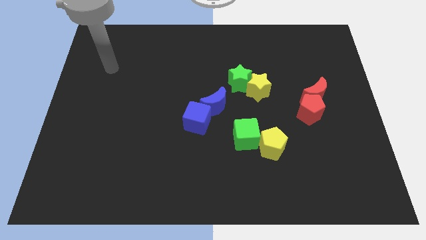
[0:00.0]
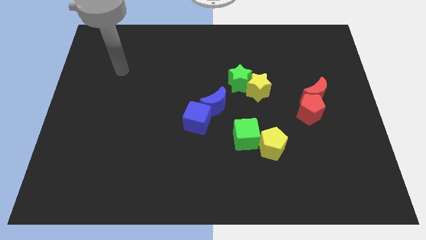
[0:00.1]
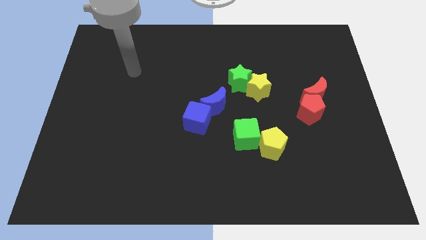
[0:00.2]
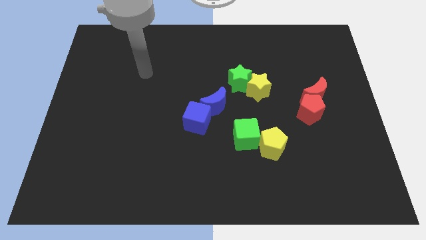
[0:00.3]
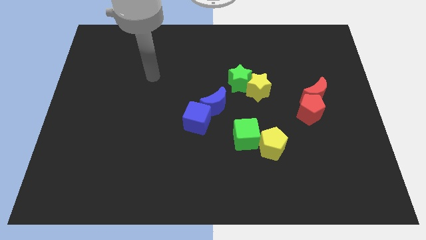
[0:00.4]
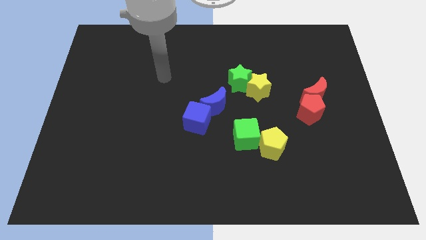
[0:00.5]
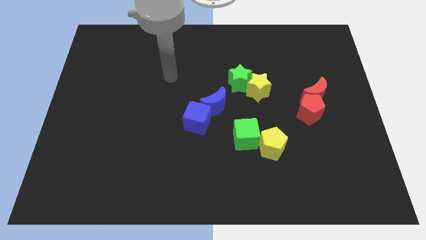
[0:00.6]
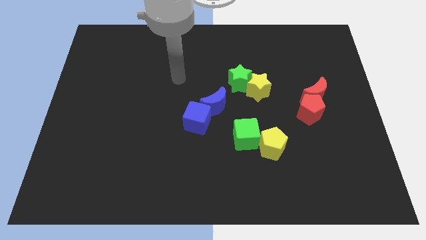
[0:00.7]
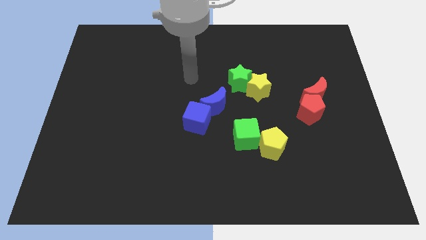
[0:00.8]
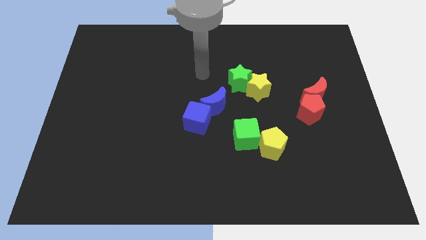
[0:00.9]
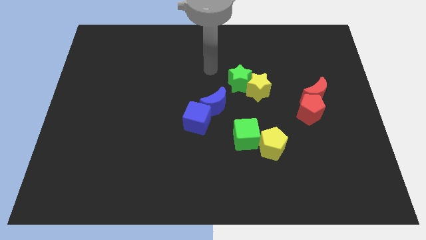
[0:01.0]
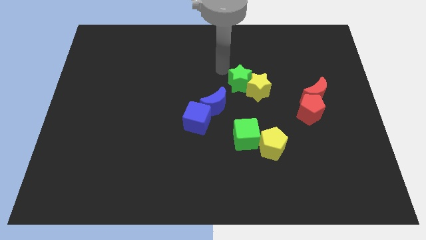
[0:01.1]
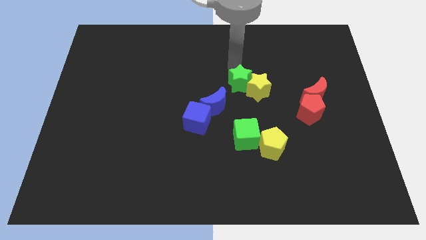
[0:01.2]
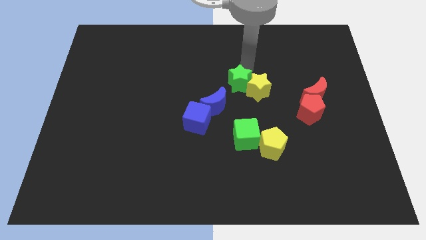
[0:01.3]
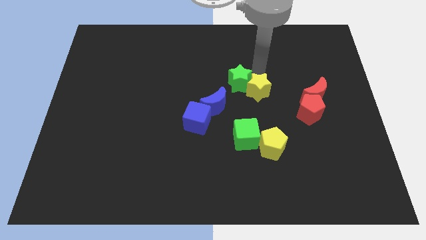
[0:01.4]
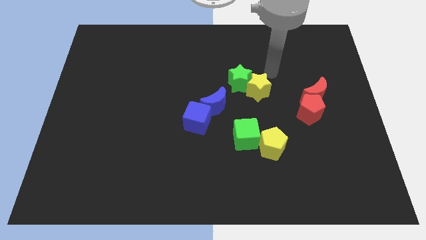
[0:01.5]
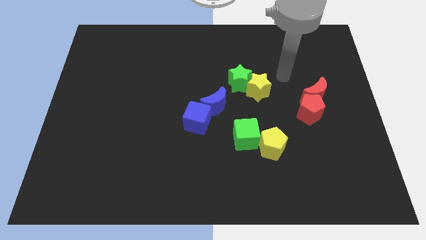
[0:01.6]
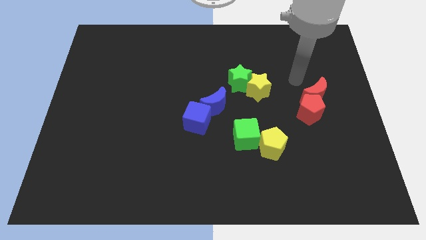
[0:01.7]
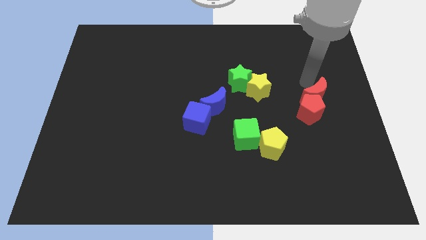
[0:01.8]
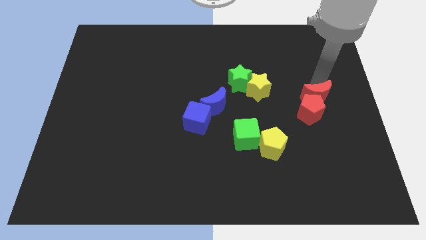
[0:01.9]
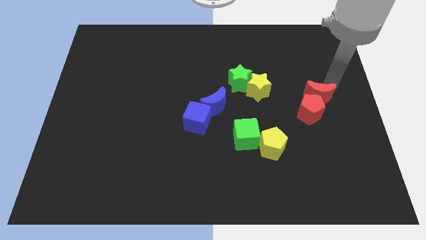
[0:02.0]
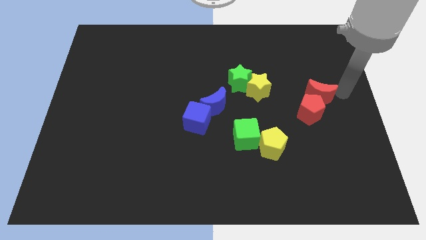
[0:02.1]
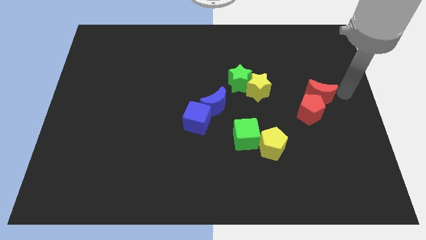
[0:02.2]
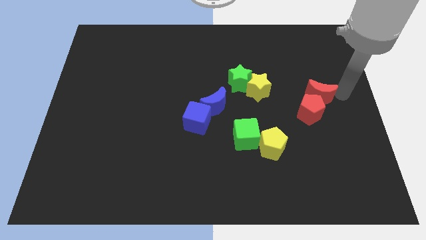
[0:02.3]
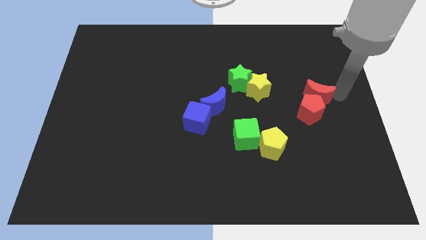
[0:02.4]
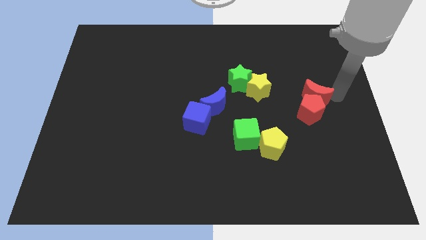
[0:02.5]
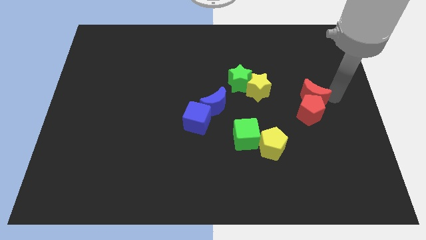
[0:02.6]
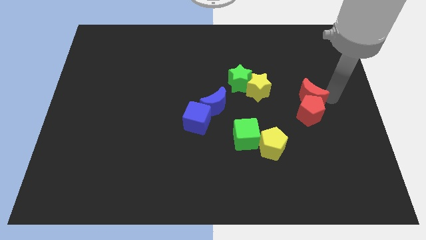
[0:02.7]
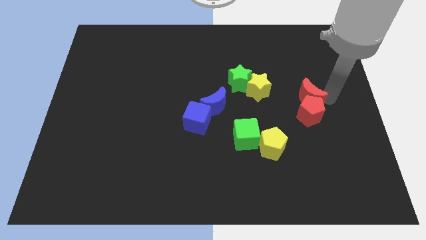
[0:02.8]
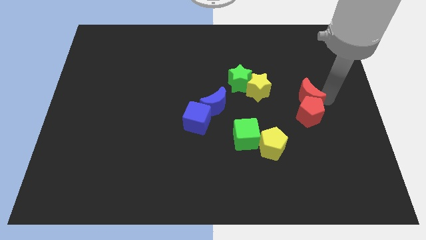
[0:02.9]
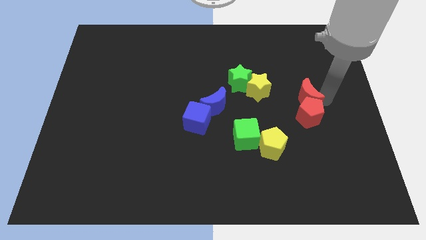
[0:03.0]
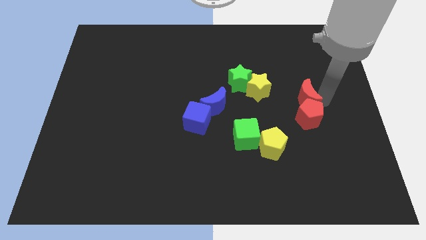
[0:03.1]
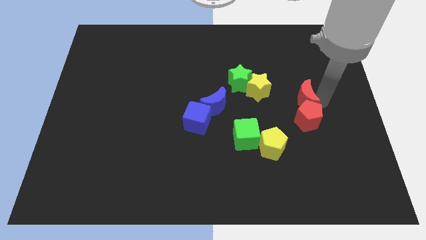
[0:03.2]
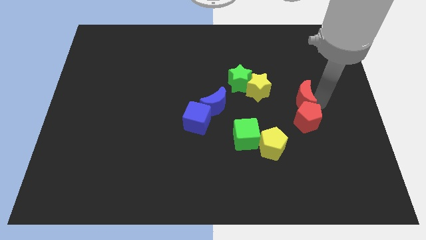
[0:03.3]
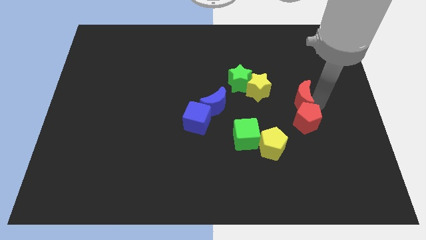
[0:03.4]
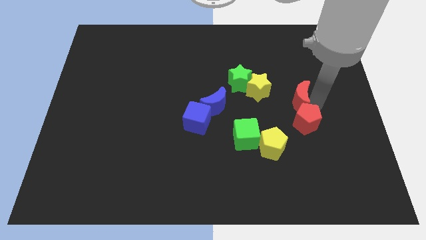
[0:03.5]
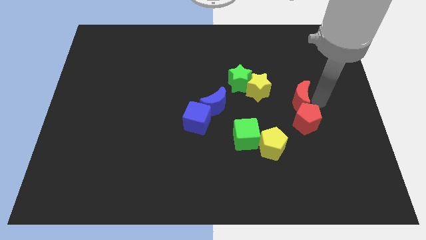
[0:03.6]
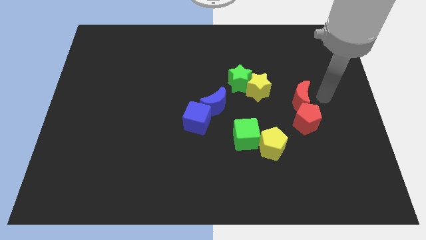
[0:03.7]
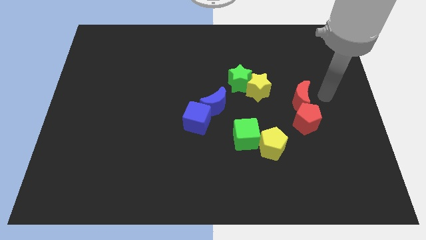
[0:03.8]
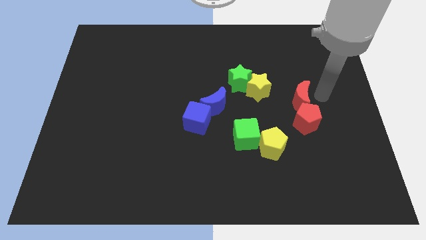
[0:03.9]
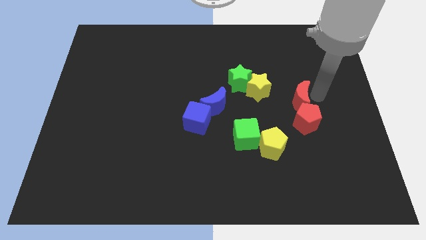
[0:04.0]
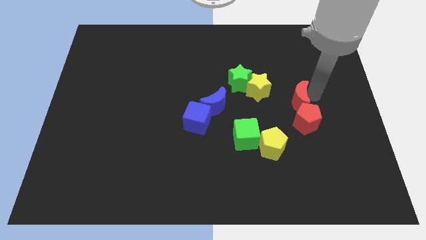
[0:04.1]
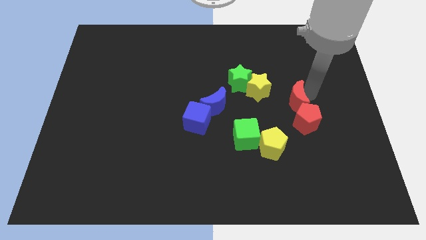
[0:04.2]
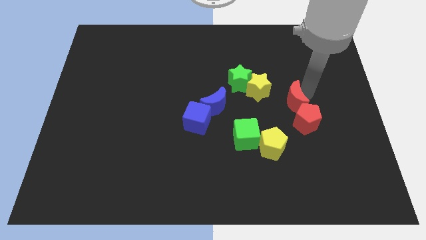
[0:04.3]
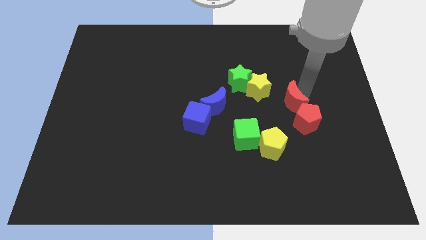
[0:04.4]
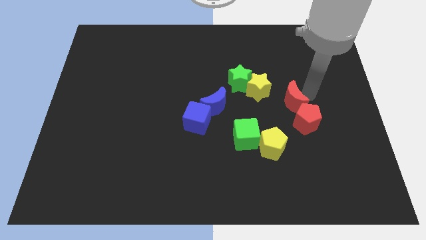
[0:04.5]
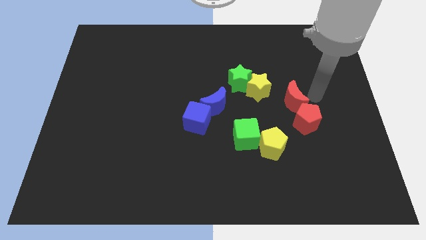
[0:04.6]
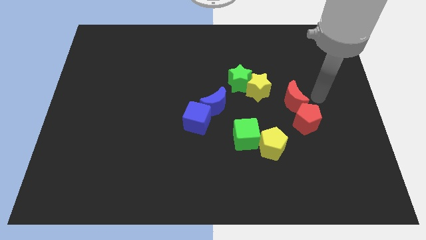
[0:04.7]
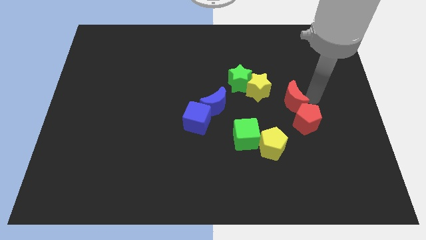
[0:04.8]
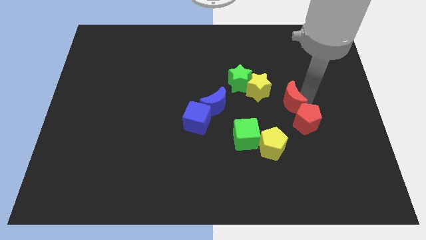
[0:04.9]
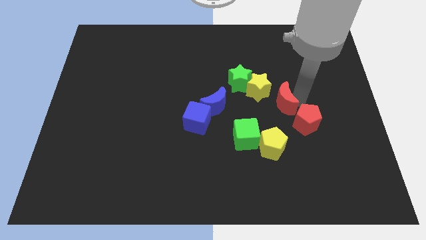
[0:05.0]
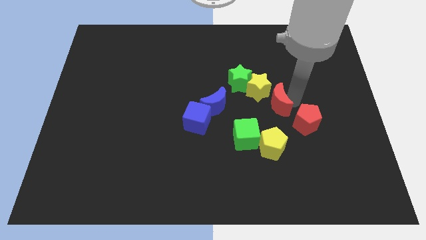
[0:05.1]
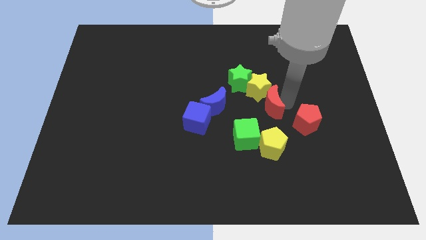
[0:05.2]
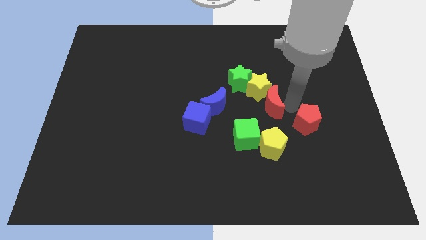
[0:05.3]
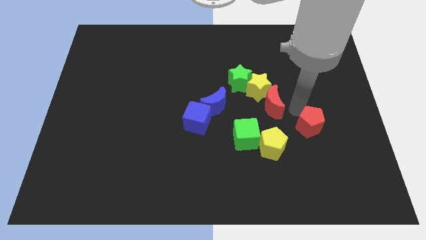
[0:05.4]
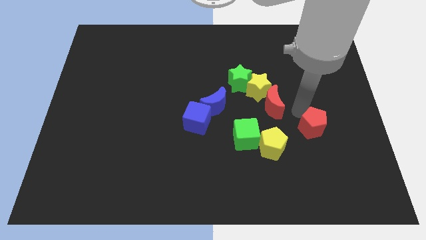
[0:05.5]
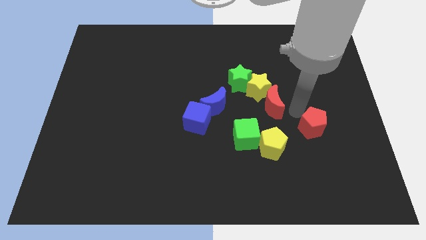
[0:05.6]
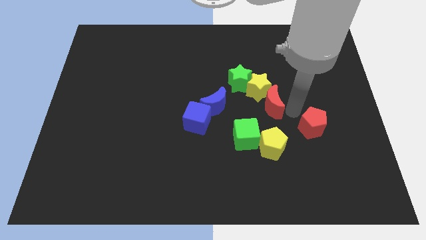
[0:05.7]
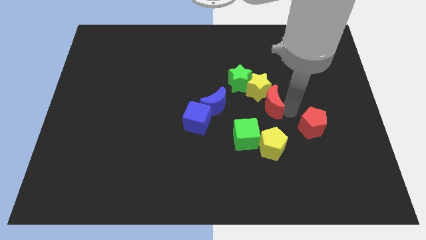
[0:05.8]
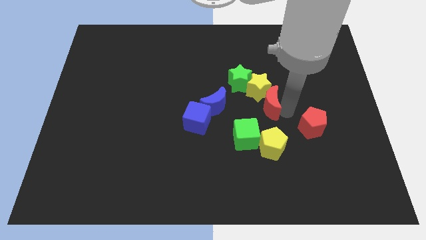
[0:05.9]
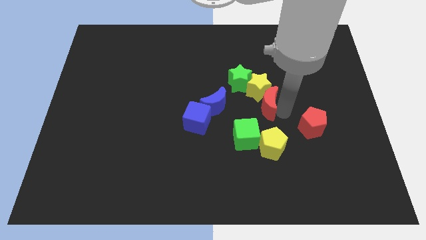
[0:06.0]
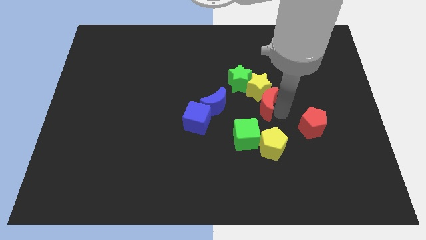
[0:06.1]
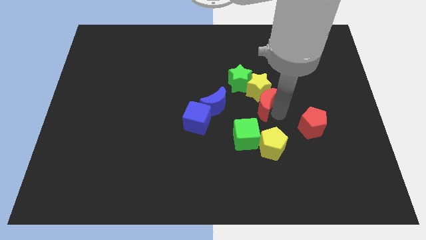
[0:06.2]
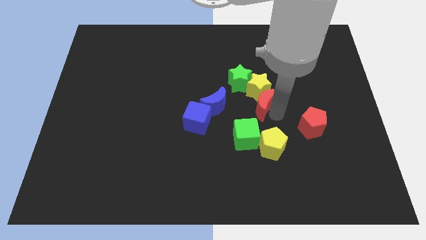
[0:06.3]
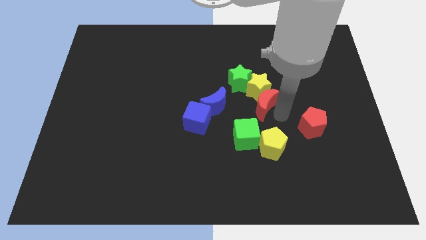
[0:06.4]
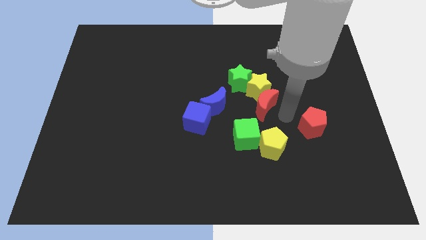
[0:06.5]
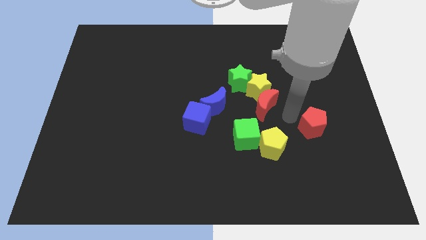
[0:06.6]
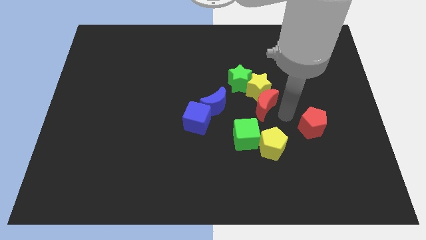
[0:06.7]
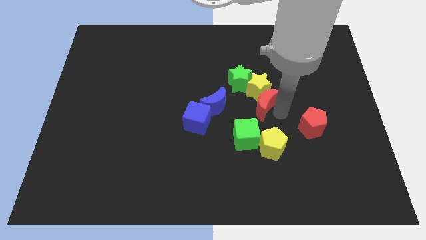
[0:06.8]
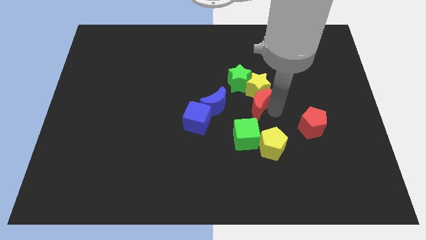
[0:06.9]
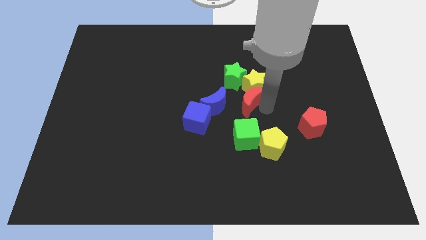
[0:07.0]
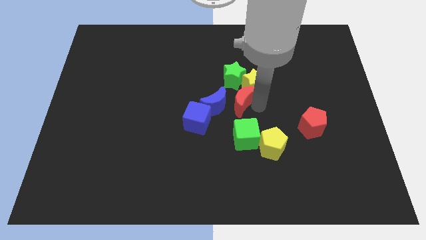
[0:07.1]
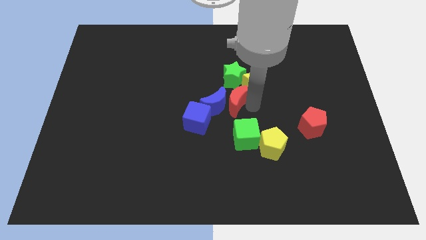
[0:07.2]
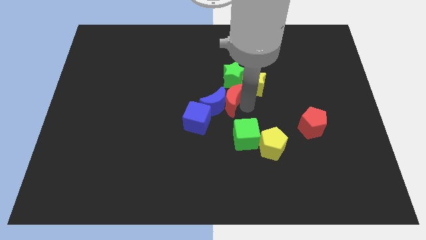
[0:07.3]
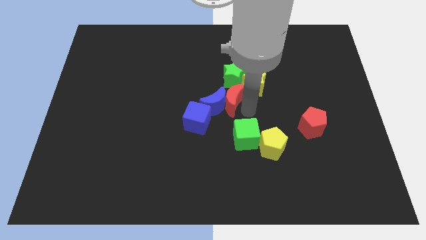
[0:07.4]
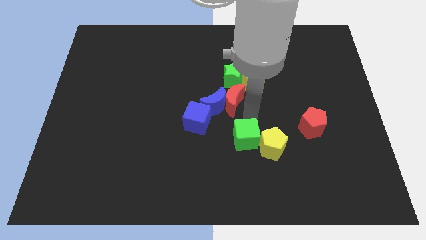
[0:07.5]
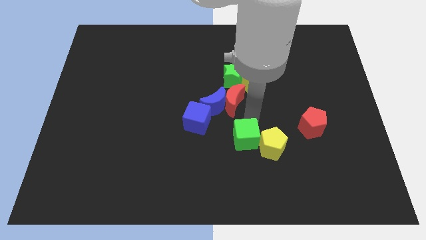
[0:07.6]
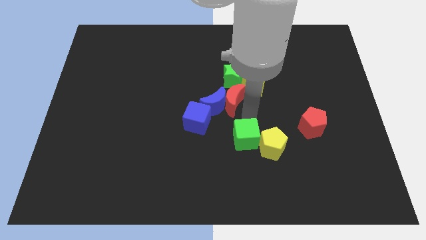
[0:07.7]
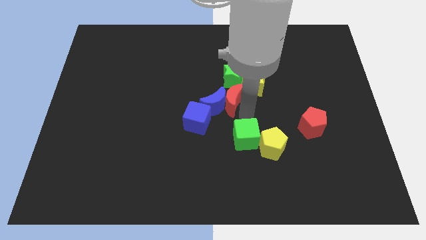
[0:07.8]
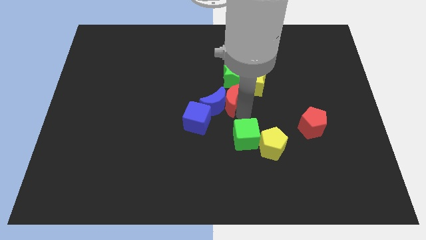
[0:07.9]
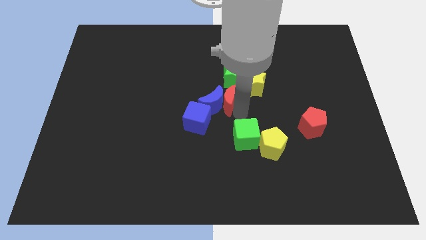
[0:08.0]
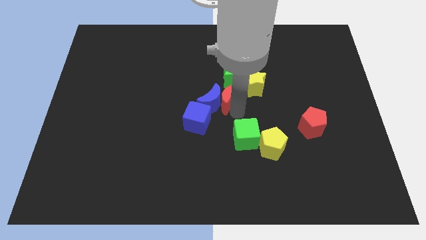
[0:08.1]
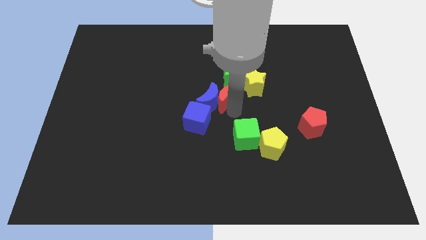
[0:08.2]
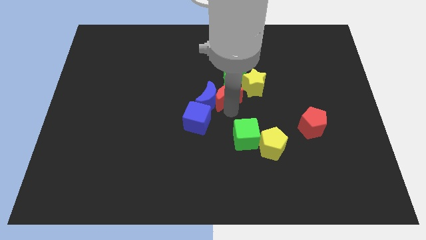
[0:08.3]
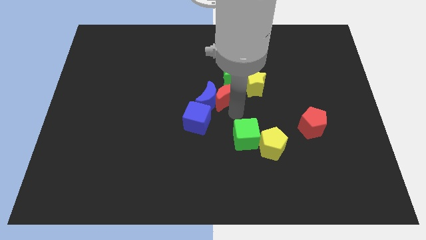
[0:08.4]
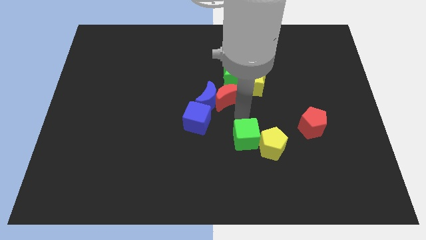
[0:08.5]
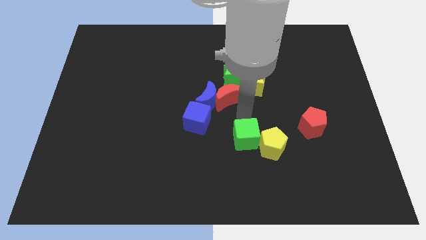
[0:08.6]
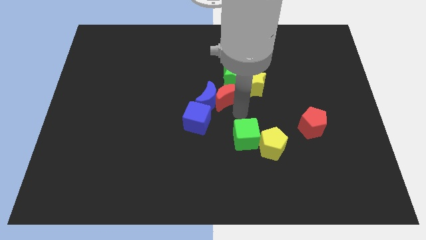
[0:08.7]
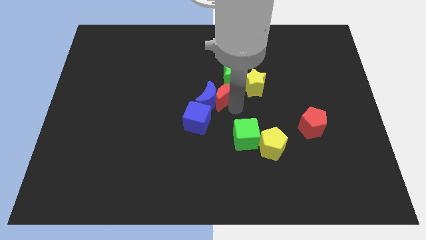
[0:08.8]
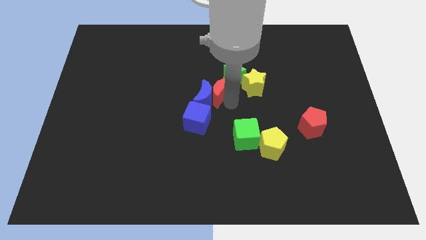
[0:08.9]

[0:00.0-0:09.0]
put the red moon just left of the green star
